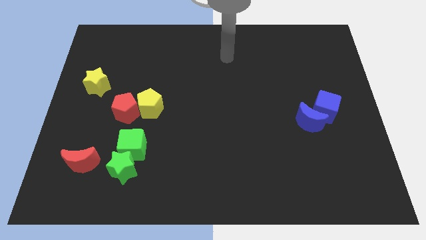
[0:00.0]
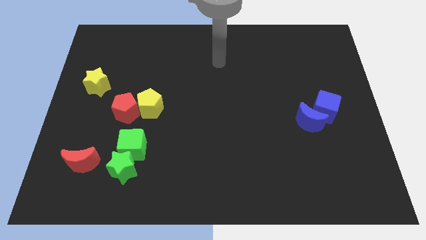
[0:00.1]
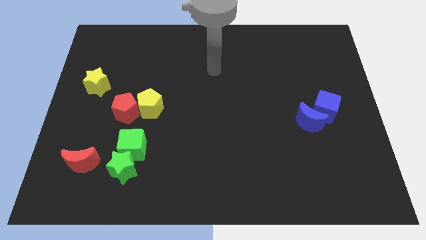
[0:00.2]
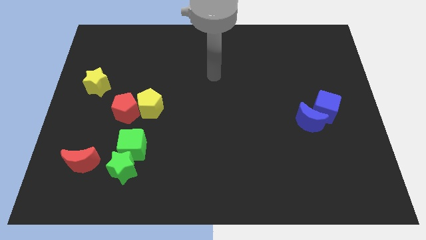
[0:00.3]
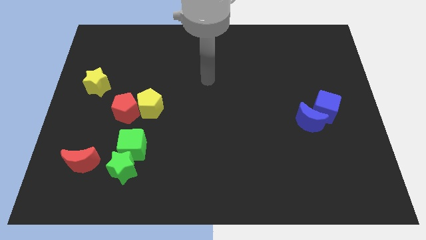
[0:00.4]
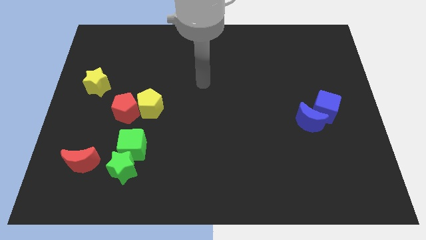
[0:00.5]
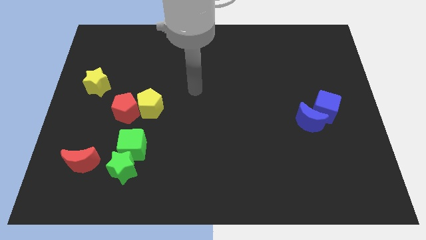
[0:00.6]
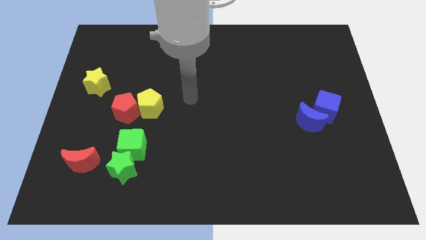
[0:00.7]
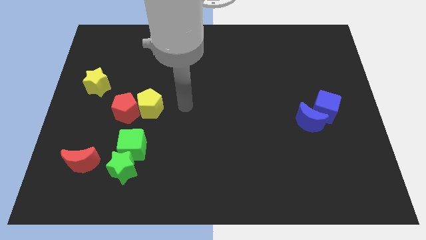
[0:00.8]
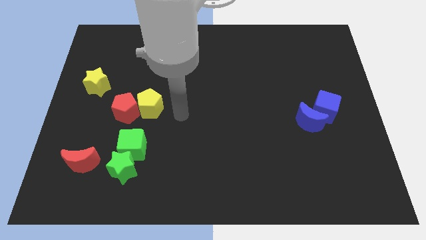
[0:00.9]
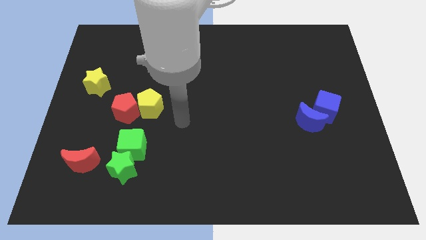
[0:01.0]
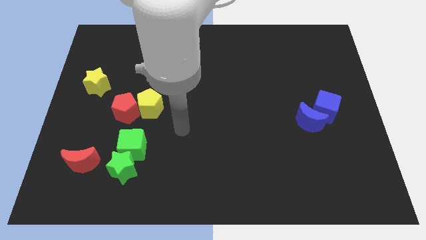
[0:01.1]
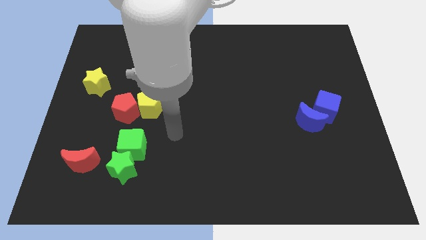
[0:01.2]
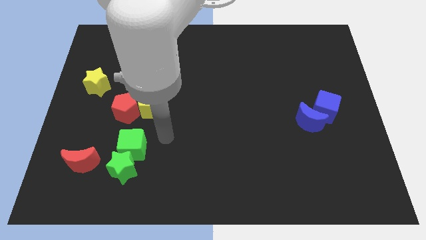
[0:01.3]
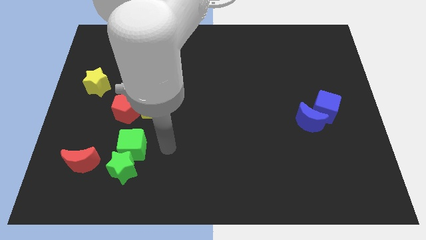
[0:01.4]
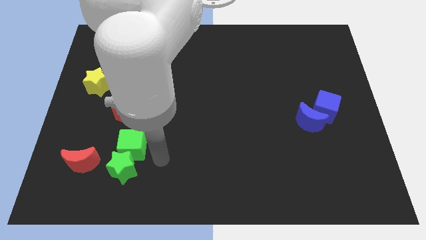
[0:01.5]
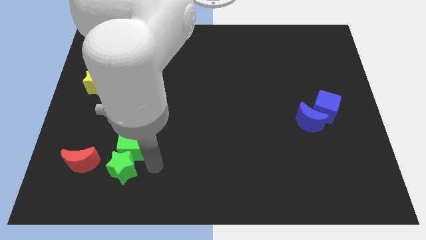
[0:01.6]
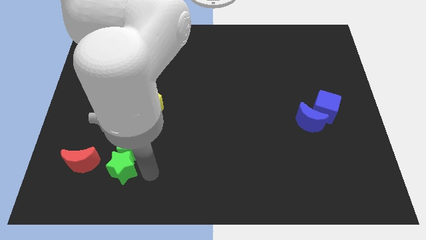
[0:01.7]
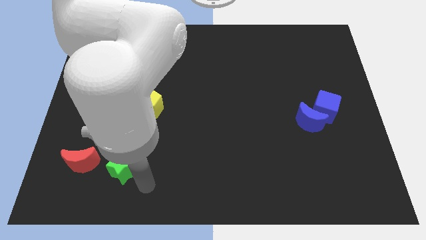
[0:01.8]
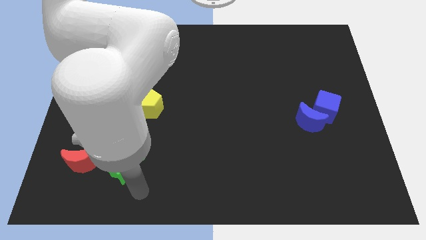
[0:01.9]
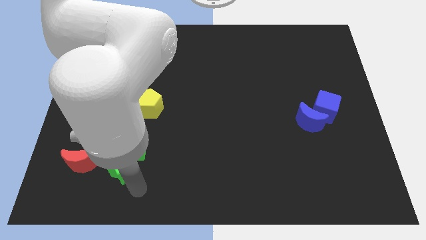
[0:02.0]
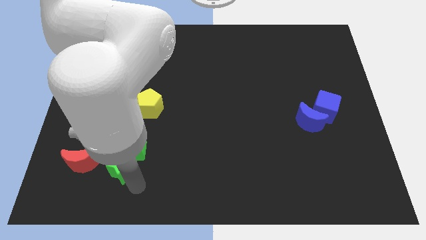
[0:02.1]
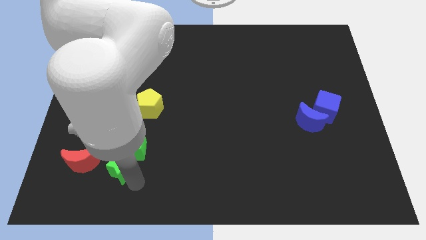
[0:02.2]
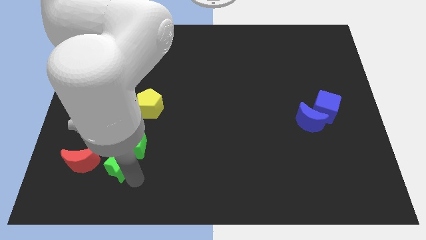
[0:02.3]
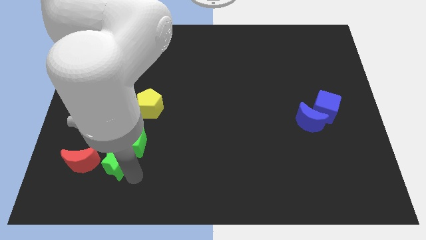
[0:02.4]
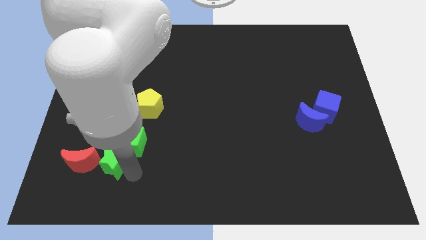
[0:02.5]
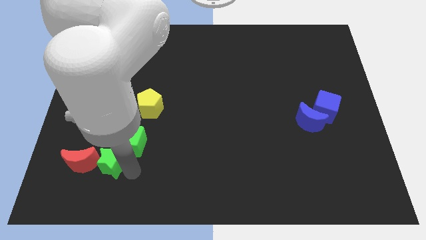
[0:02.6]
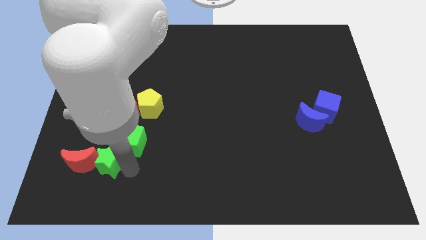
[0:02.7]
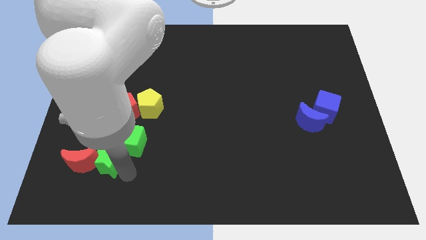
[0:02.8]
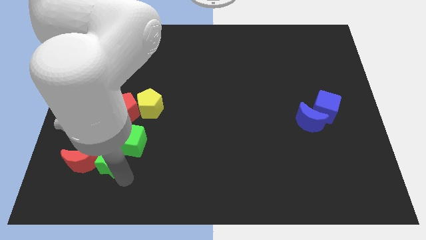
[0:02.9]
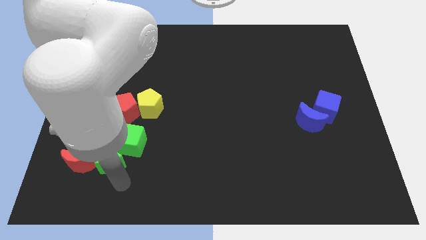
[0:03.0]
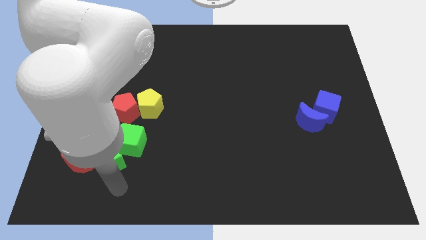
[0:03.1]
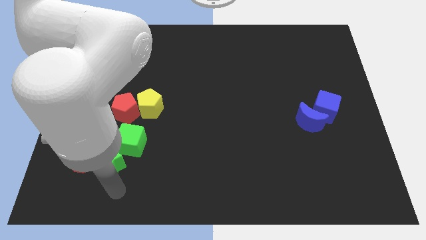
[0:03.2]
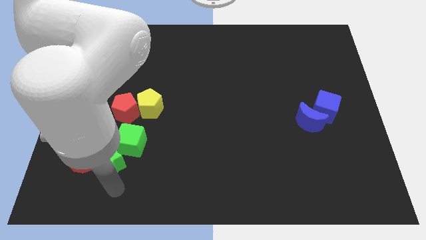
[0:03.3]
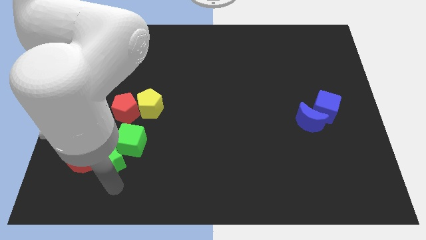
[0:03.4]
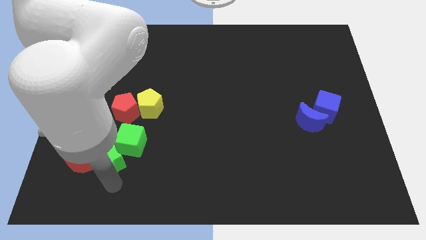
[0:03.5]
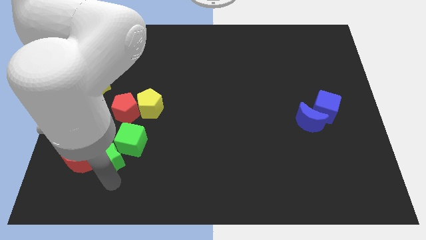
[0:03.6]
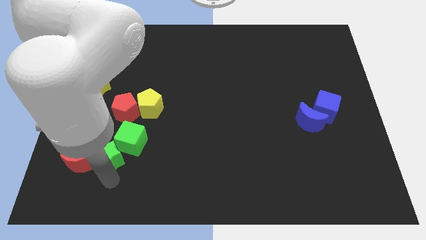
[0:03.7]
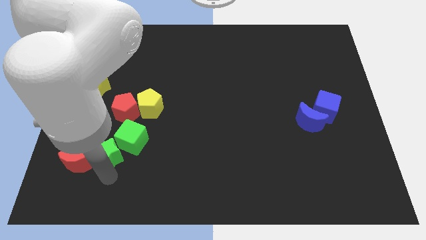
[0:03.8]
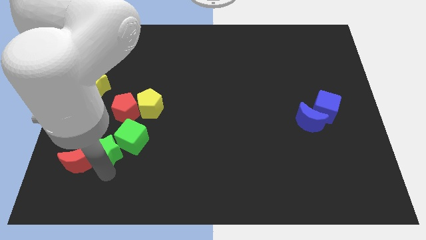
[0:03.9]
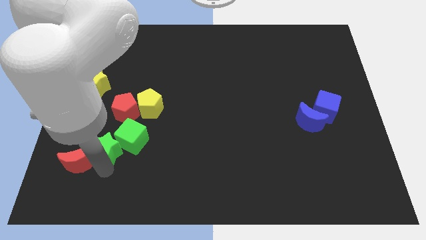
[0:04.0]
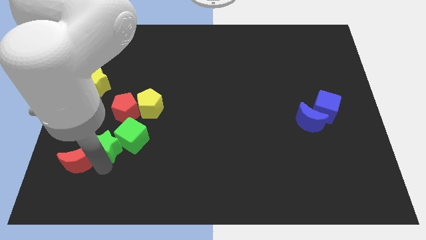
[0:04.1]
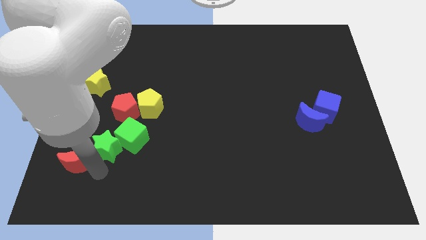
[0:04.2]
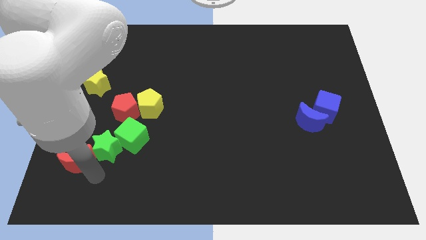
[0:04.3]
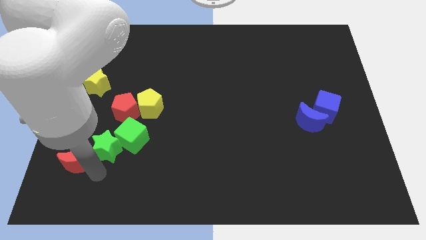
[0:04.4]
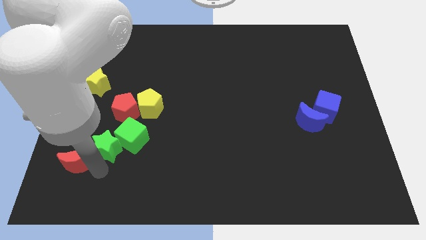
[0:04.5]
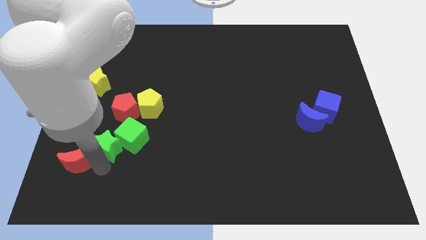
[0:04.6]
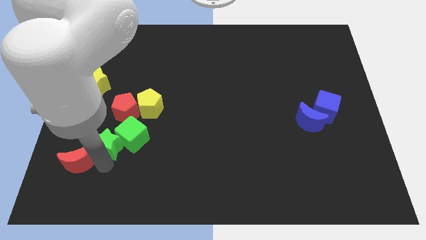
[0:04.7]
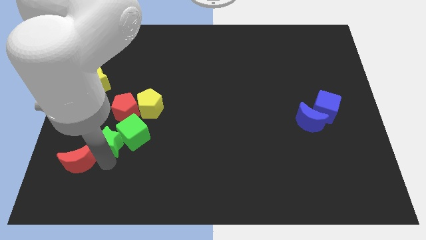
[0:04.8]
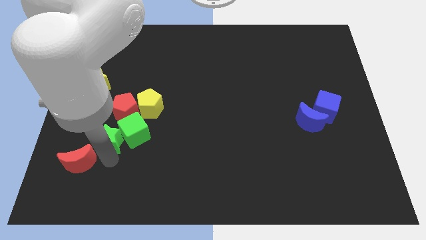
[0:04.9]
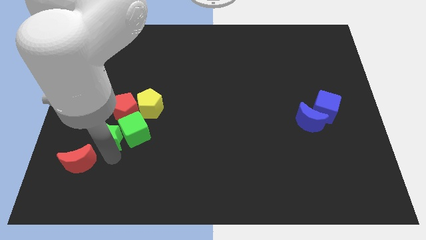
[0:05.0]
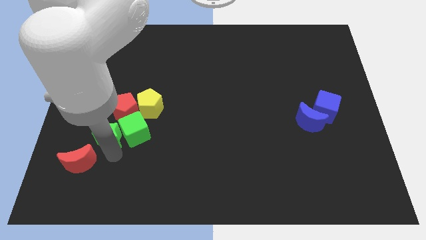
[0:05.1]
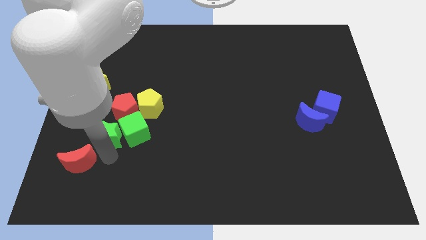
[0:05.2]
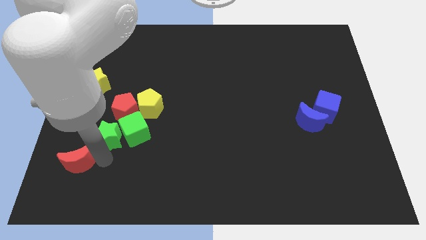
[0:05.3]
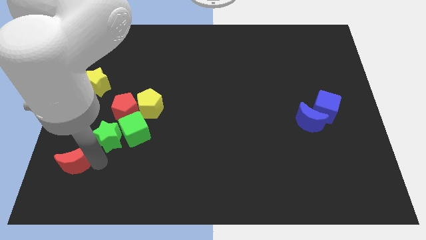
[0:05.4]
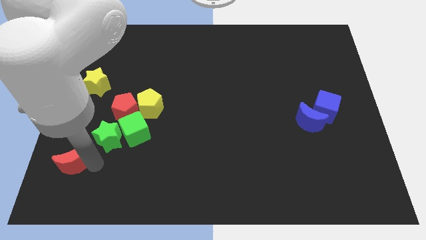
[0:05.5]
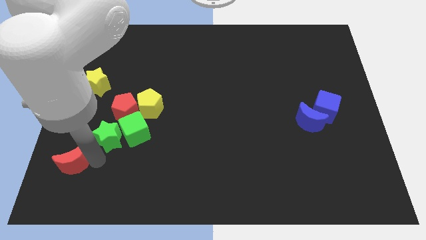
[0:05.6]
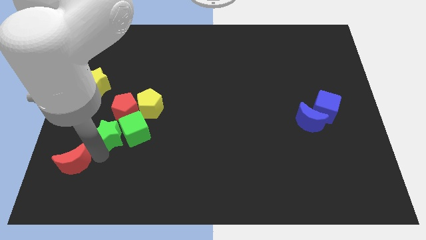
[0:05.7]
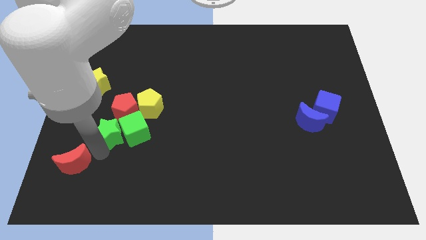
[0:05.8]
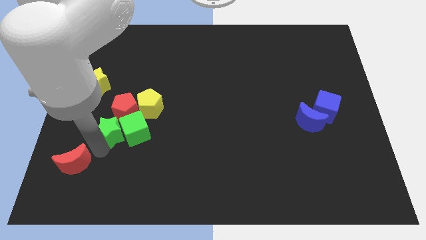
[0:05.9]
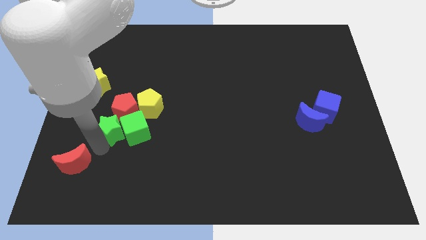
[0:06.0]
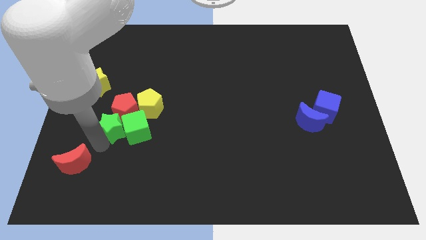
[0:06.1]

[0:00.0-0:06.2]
push the green star close to the red pentagon

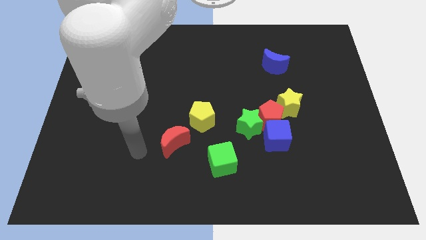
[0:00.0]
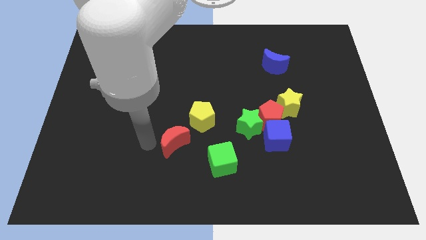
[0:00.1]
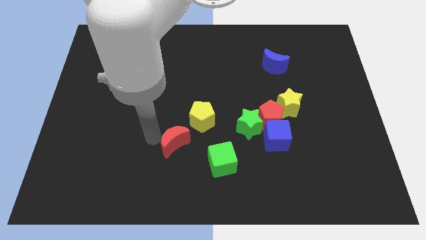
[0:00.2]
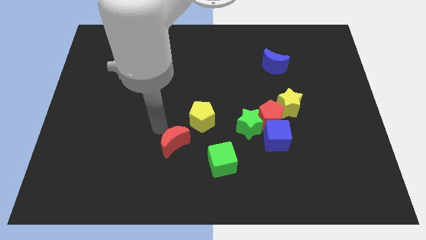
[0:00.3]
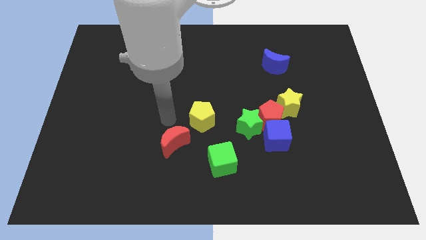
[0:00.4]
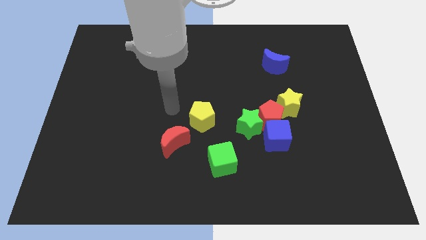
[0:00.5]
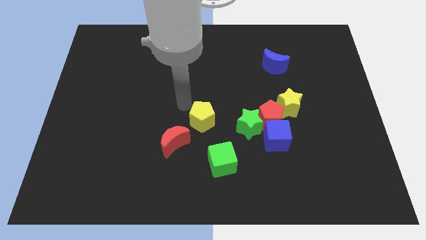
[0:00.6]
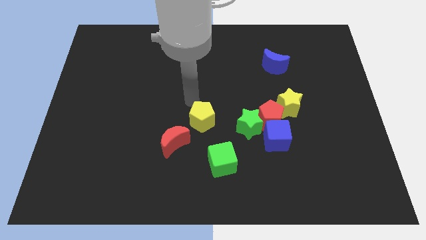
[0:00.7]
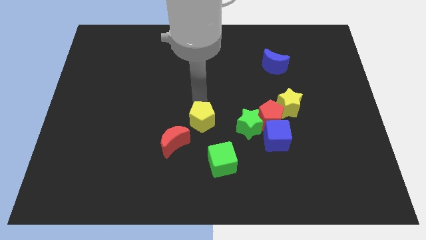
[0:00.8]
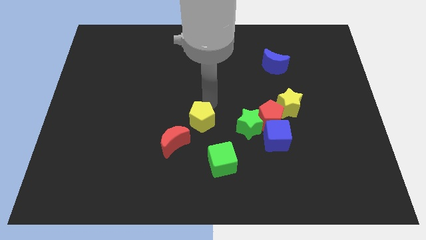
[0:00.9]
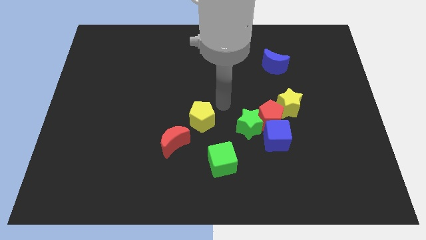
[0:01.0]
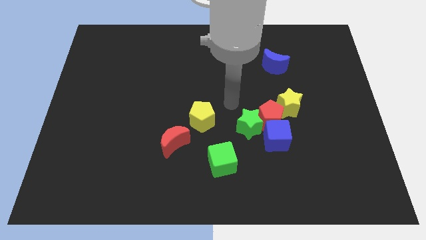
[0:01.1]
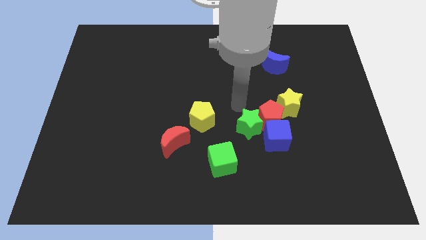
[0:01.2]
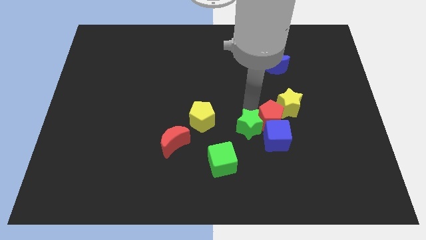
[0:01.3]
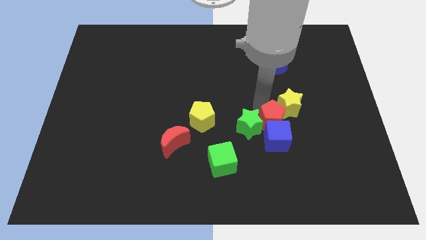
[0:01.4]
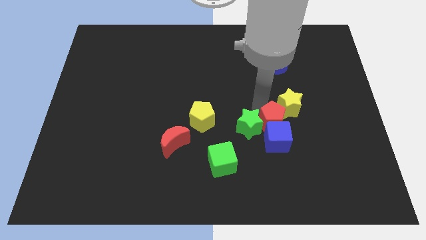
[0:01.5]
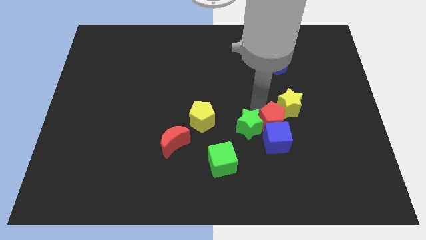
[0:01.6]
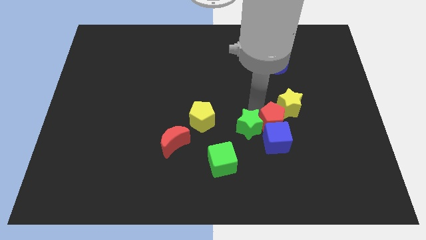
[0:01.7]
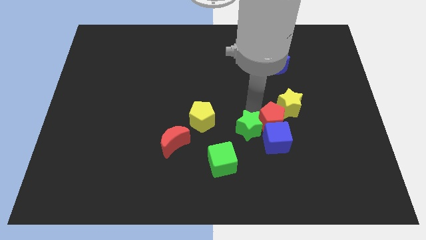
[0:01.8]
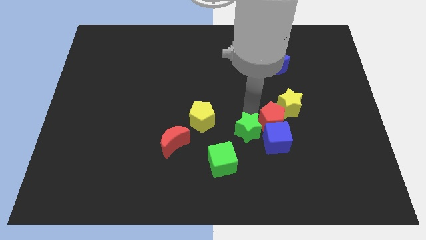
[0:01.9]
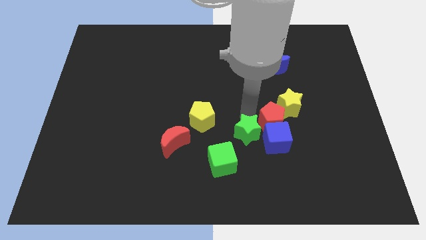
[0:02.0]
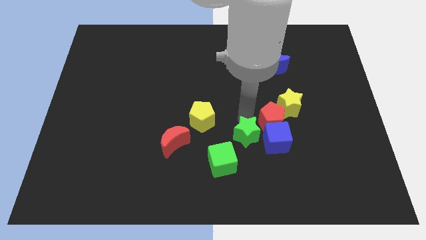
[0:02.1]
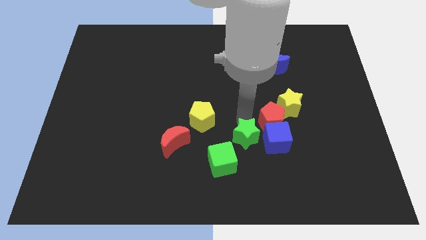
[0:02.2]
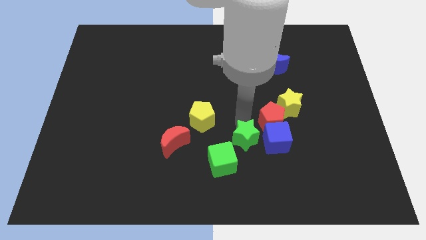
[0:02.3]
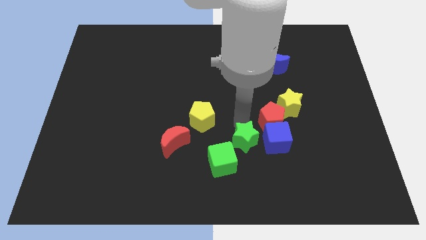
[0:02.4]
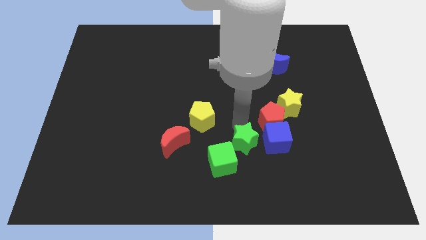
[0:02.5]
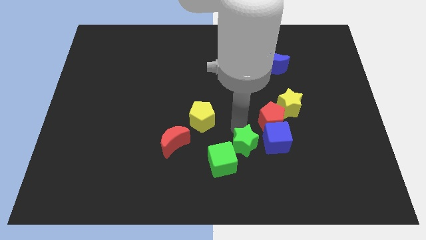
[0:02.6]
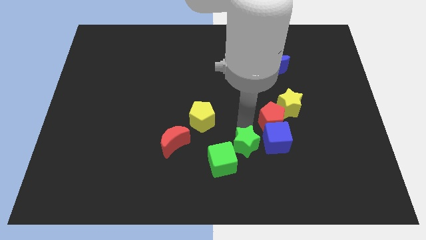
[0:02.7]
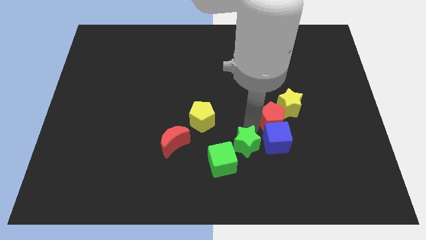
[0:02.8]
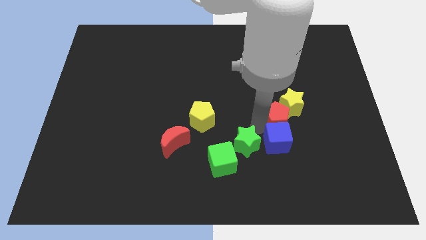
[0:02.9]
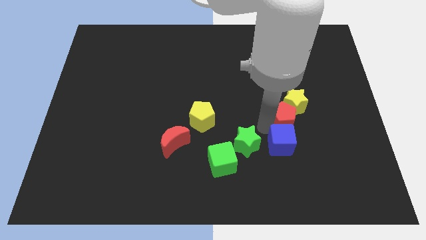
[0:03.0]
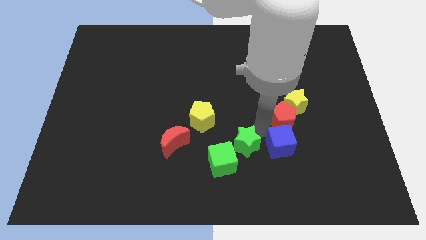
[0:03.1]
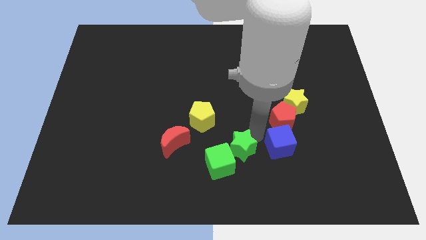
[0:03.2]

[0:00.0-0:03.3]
put the green star towards the green cube
